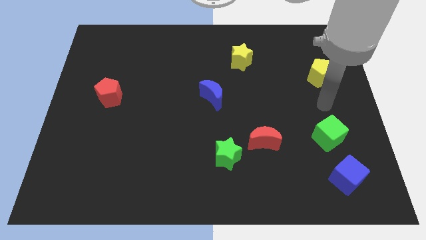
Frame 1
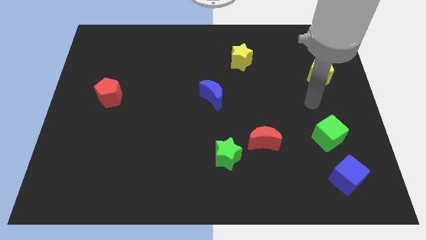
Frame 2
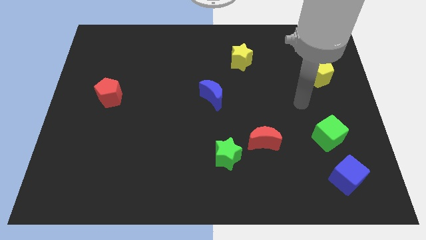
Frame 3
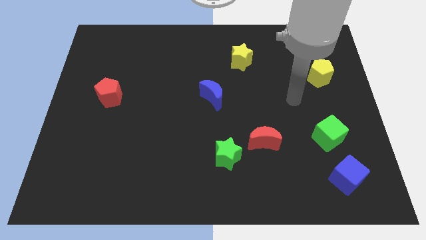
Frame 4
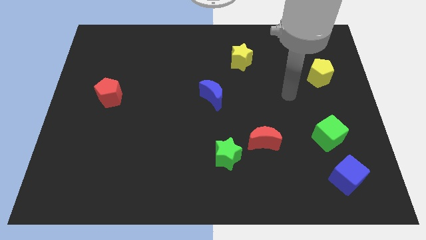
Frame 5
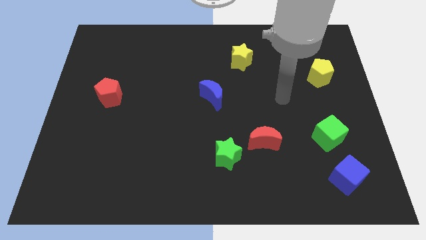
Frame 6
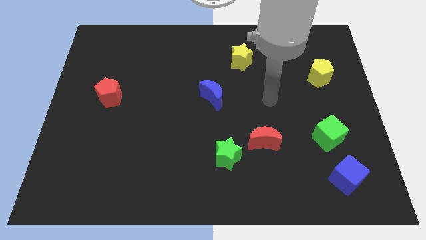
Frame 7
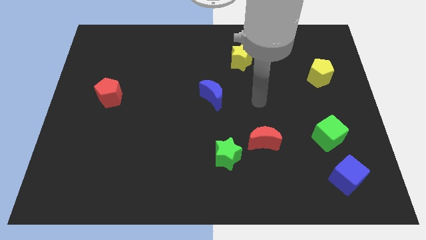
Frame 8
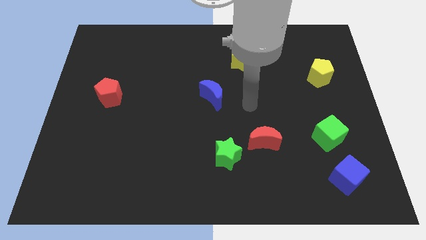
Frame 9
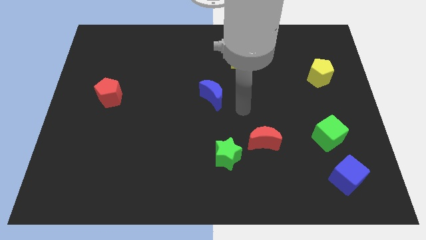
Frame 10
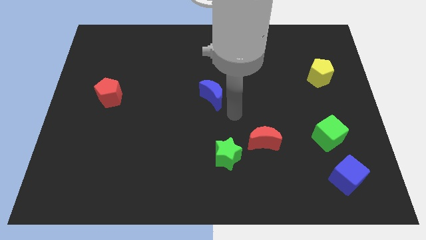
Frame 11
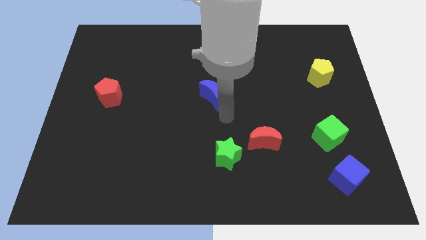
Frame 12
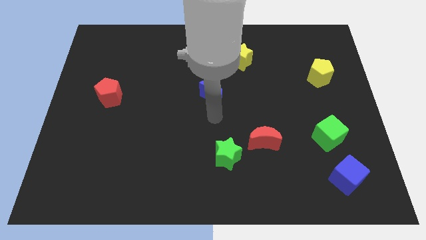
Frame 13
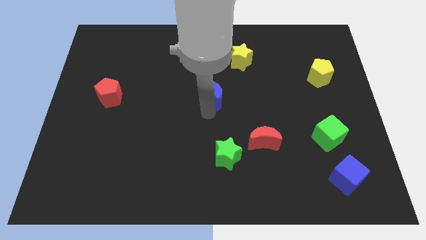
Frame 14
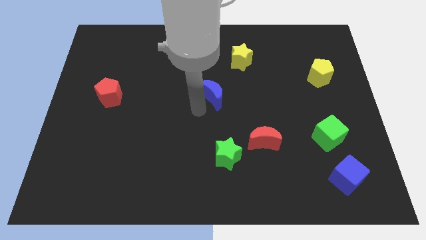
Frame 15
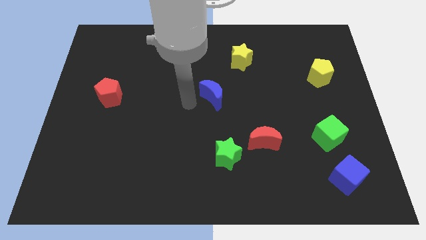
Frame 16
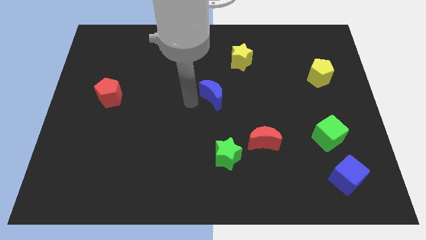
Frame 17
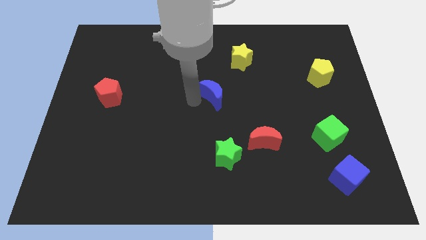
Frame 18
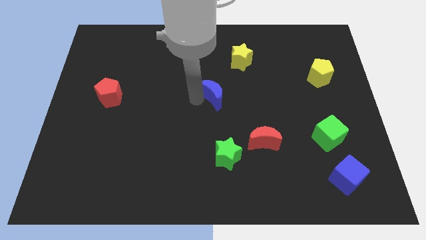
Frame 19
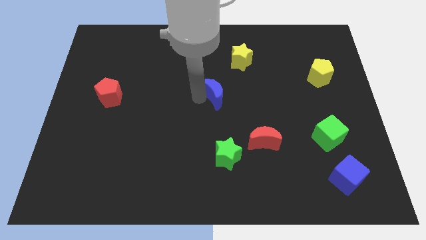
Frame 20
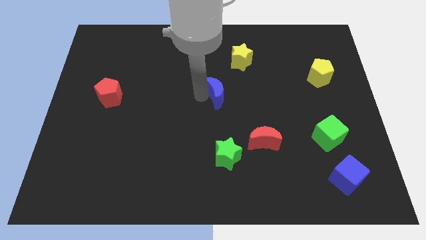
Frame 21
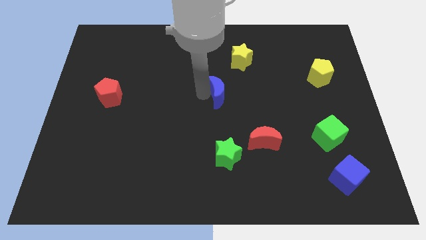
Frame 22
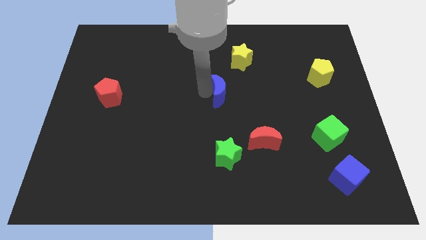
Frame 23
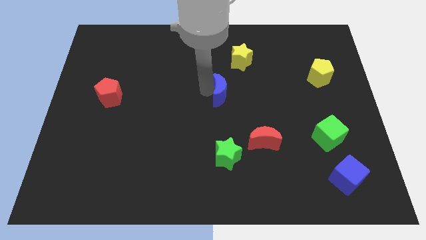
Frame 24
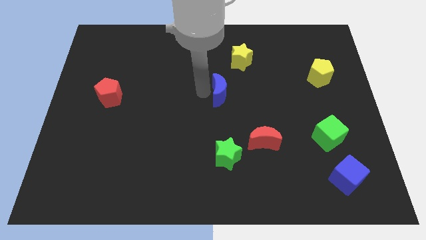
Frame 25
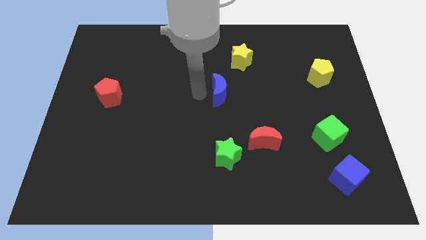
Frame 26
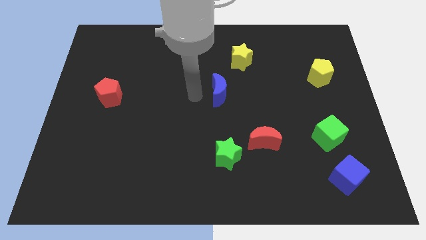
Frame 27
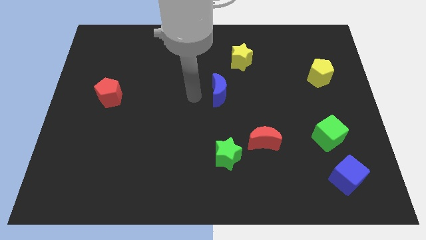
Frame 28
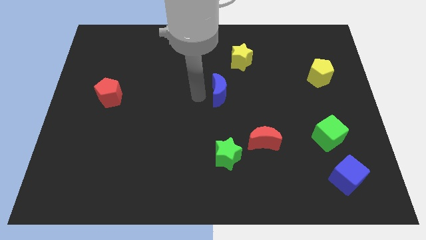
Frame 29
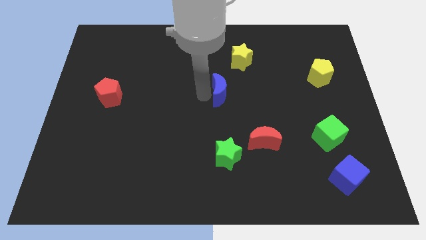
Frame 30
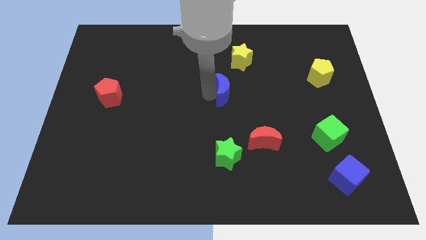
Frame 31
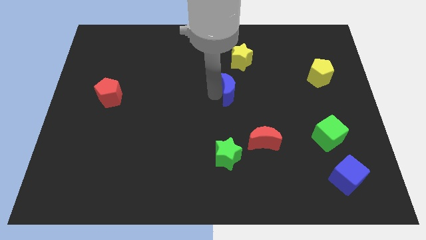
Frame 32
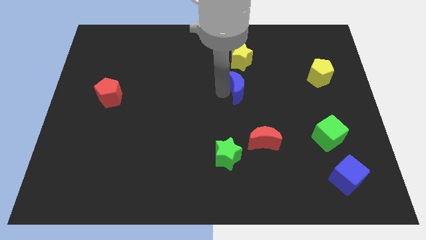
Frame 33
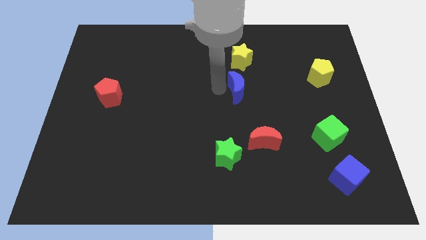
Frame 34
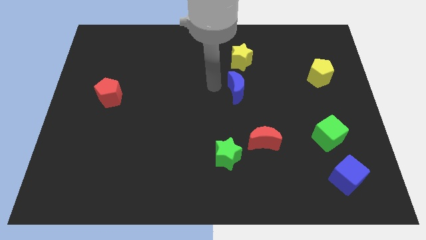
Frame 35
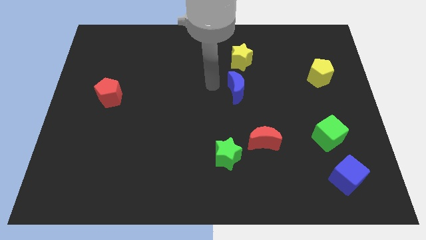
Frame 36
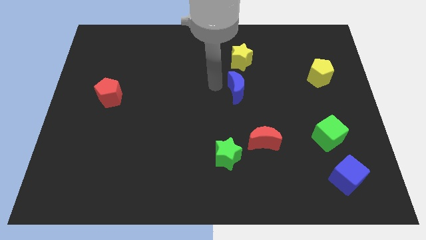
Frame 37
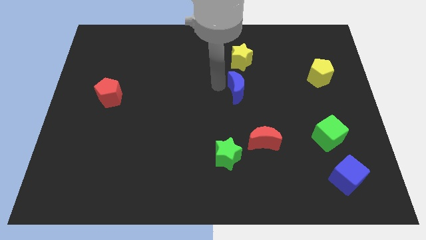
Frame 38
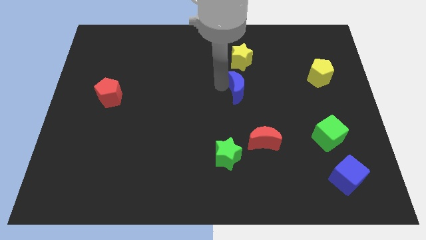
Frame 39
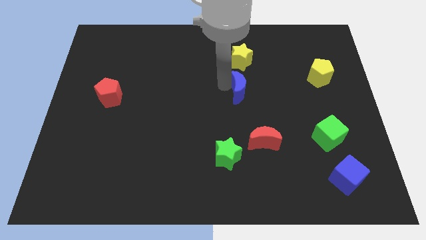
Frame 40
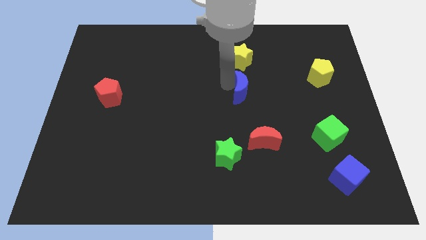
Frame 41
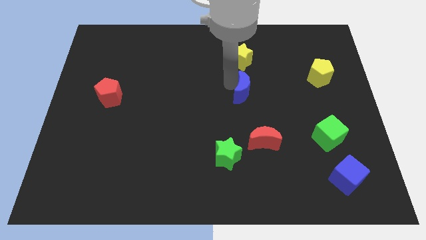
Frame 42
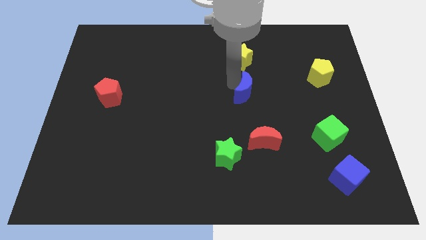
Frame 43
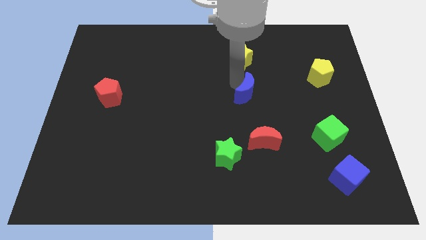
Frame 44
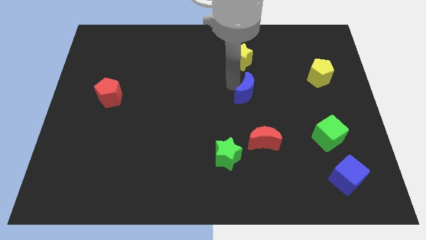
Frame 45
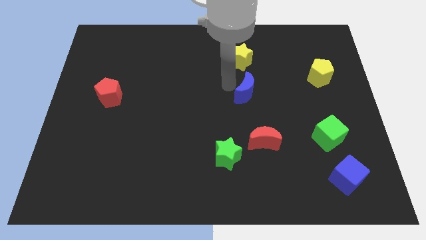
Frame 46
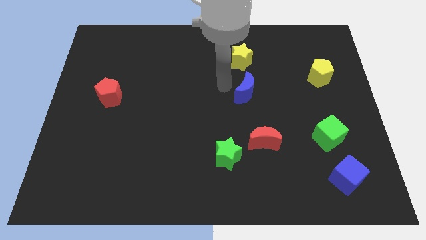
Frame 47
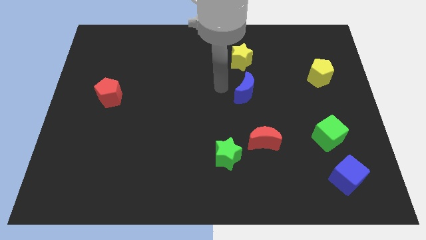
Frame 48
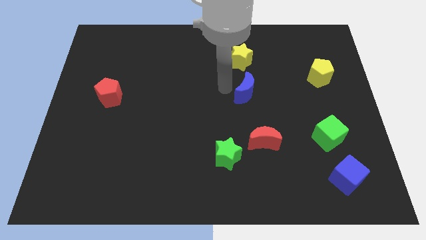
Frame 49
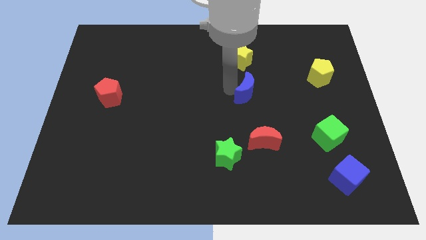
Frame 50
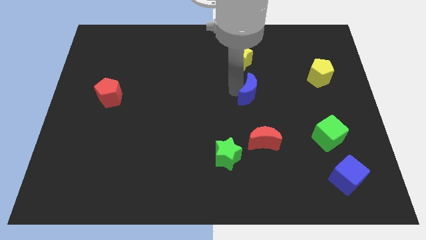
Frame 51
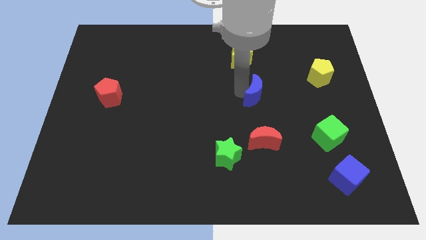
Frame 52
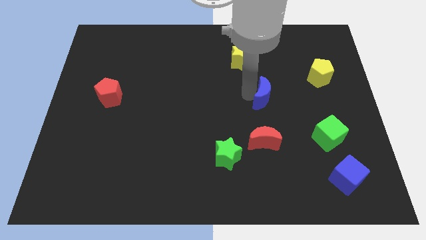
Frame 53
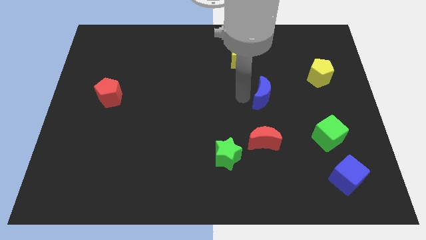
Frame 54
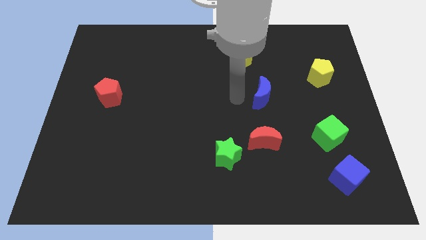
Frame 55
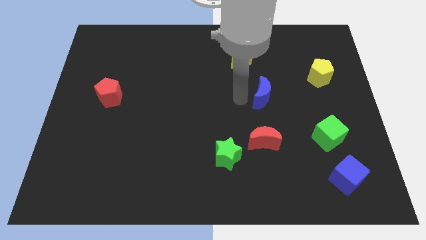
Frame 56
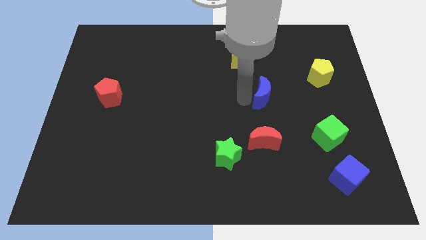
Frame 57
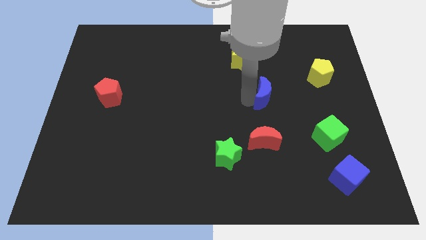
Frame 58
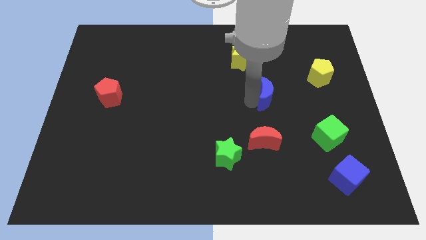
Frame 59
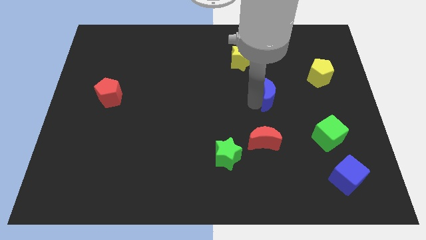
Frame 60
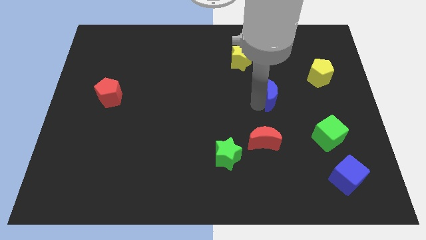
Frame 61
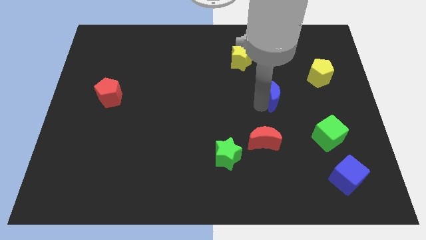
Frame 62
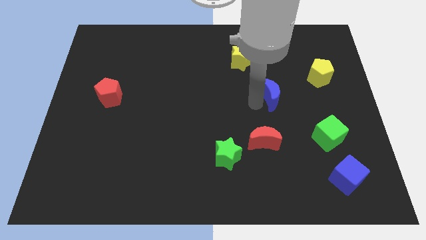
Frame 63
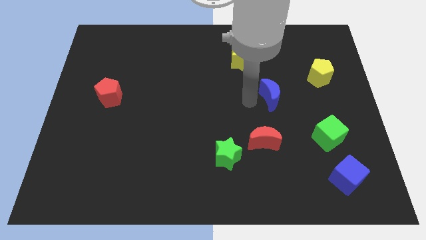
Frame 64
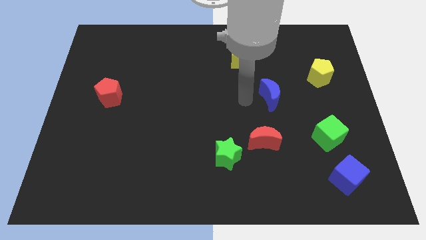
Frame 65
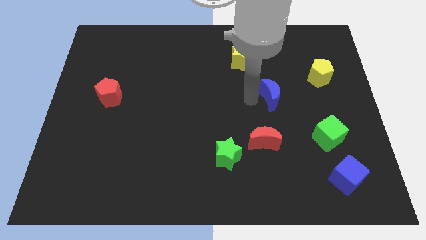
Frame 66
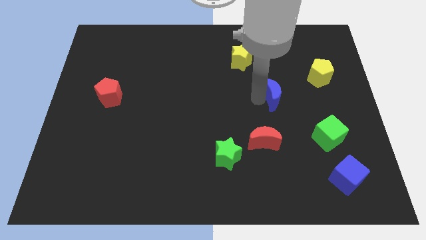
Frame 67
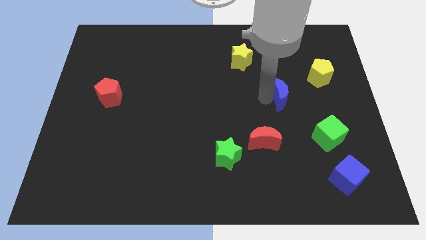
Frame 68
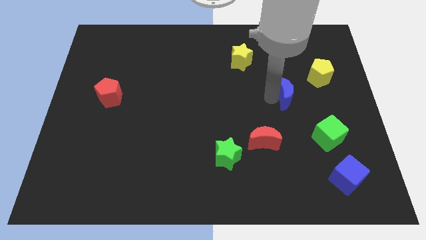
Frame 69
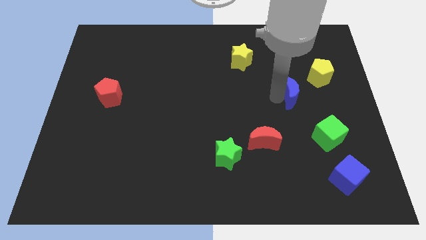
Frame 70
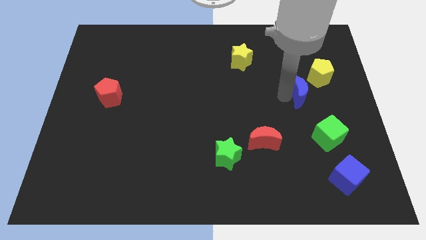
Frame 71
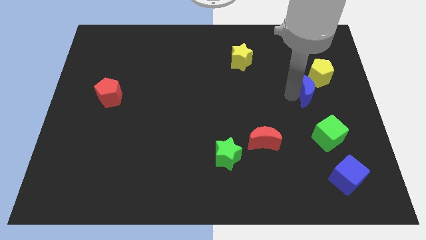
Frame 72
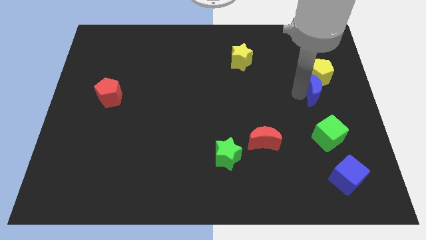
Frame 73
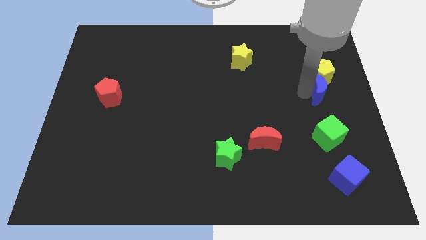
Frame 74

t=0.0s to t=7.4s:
slide the blue moon to the right side
